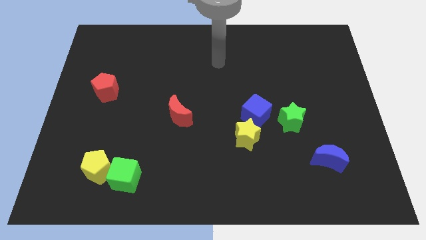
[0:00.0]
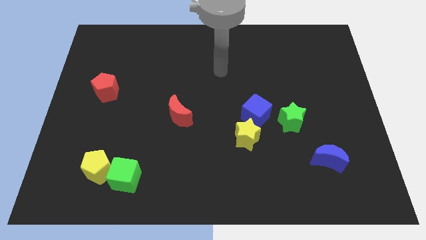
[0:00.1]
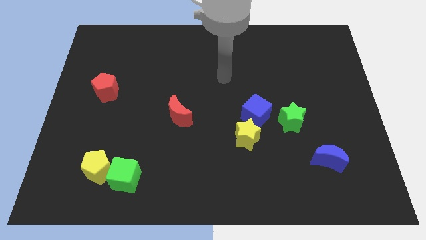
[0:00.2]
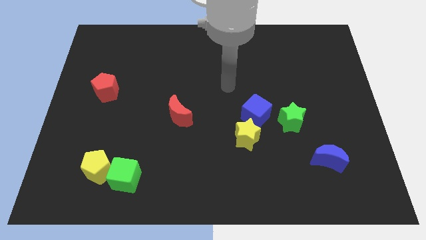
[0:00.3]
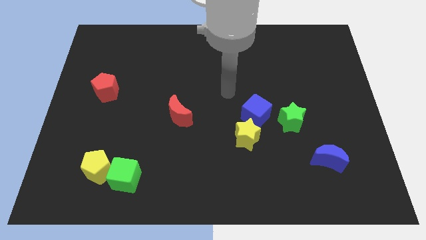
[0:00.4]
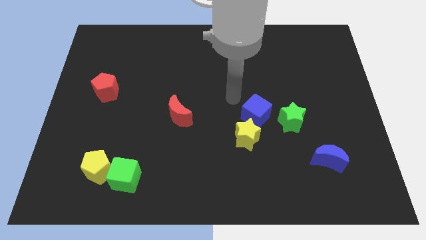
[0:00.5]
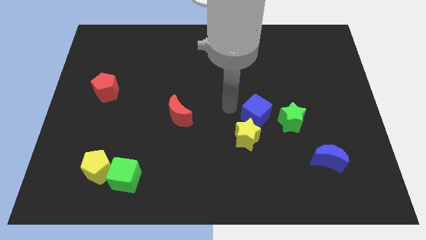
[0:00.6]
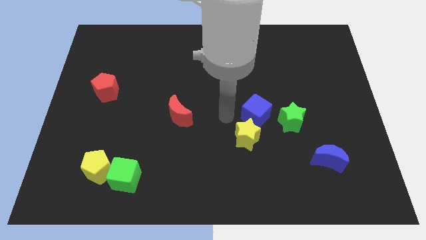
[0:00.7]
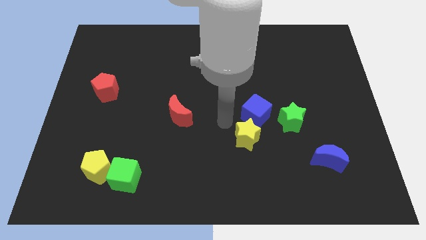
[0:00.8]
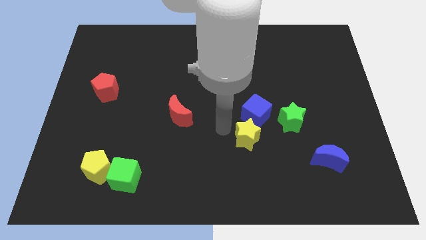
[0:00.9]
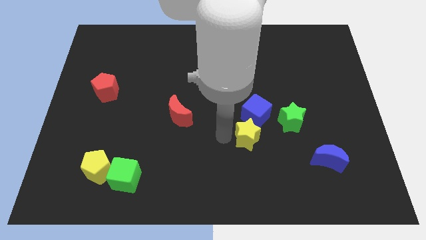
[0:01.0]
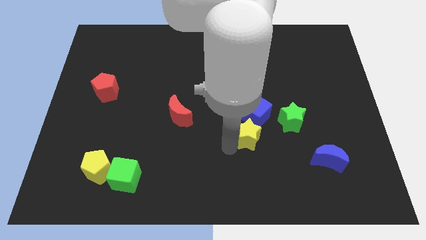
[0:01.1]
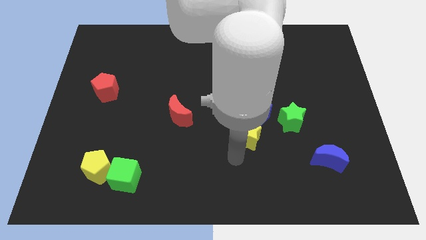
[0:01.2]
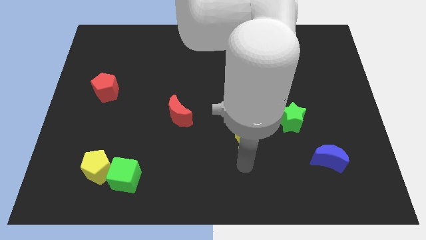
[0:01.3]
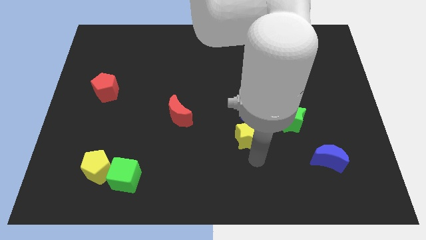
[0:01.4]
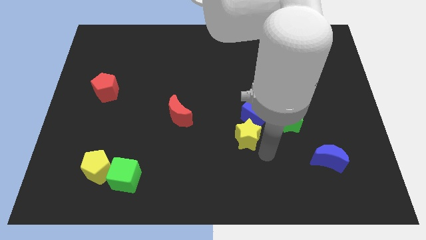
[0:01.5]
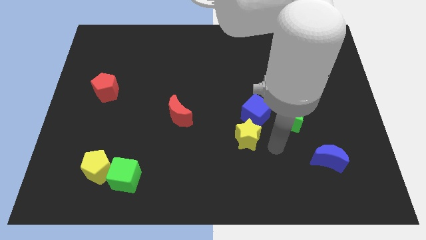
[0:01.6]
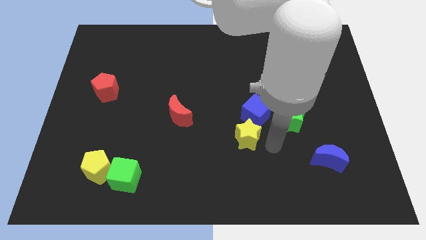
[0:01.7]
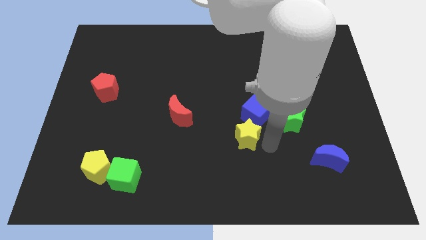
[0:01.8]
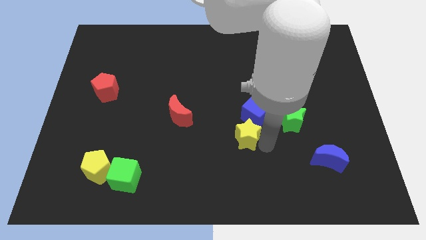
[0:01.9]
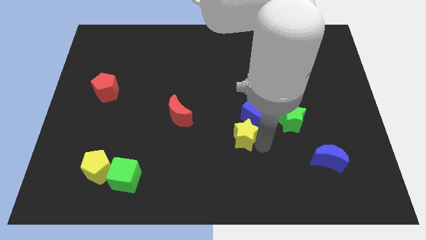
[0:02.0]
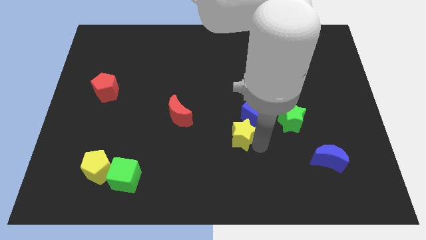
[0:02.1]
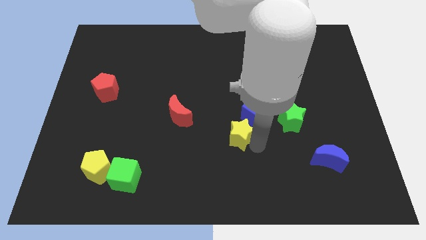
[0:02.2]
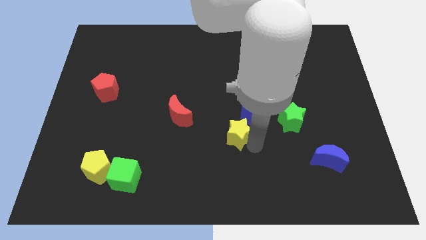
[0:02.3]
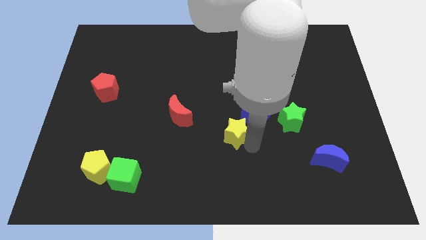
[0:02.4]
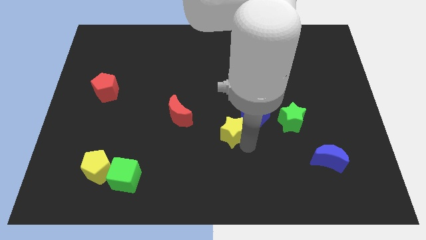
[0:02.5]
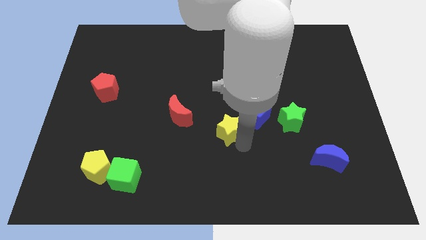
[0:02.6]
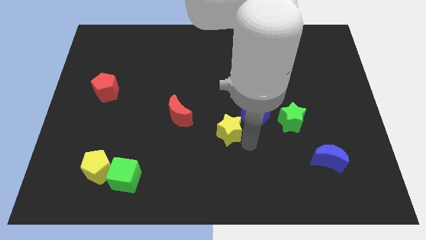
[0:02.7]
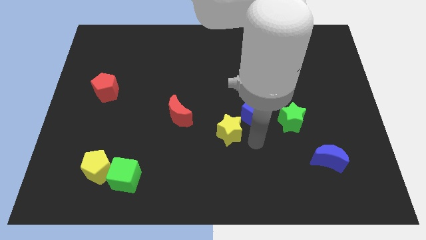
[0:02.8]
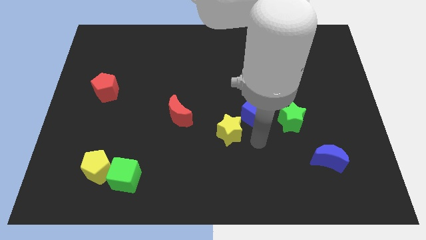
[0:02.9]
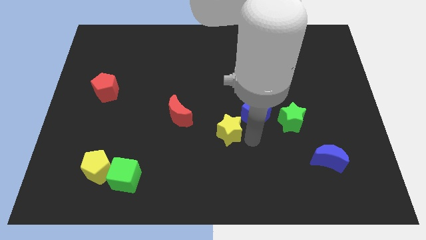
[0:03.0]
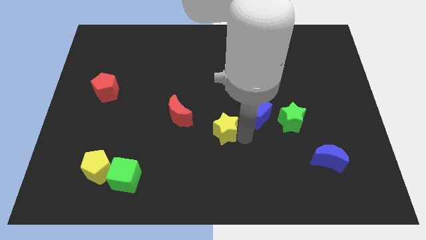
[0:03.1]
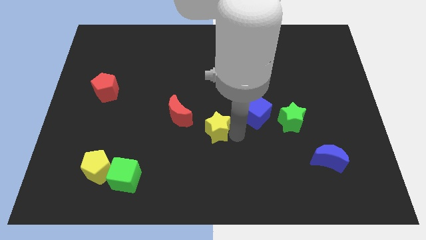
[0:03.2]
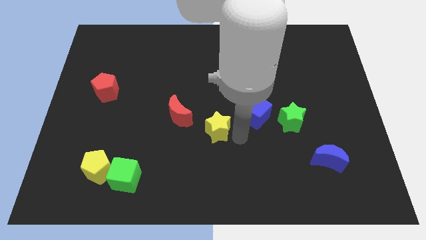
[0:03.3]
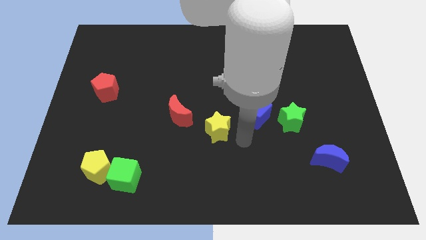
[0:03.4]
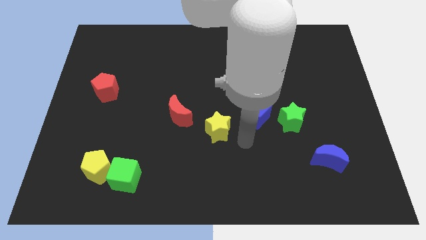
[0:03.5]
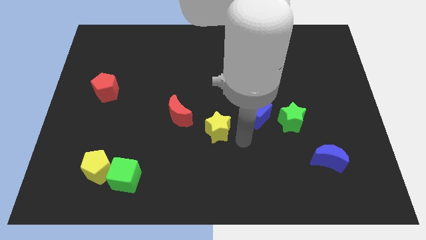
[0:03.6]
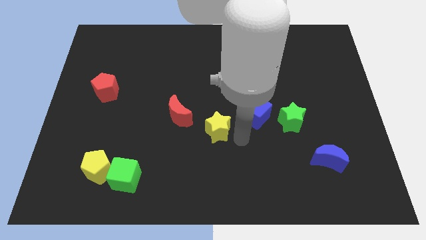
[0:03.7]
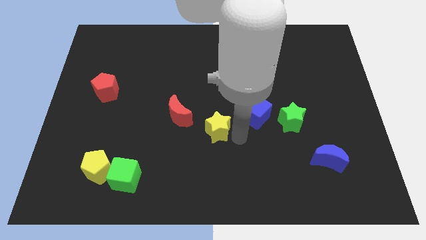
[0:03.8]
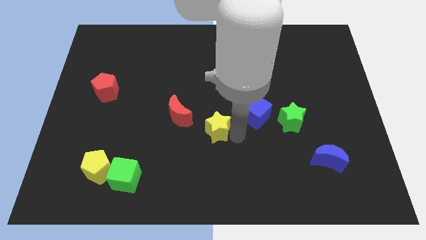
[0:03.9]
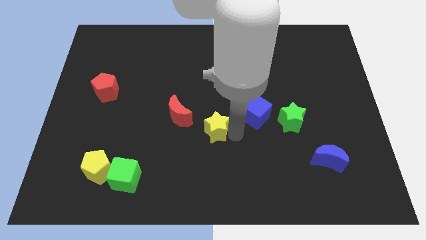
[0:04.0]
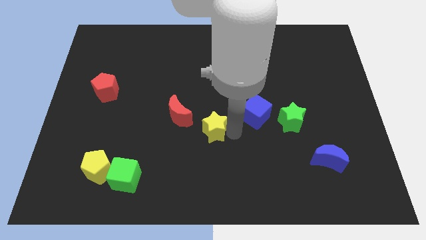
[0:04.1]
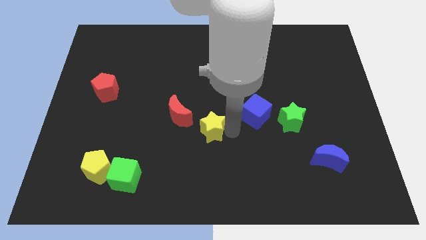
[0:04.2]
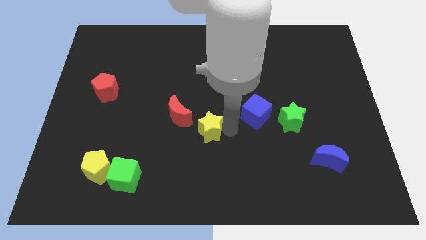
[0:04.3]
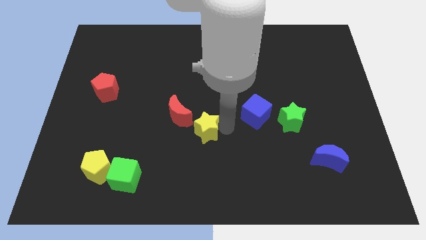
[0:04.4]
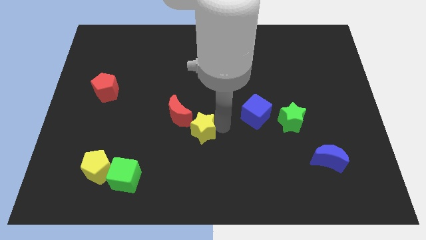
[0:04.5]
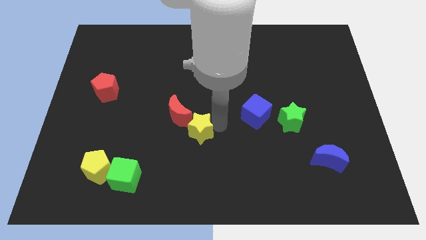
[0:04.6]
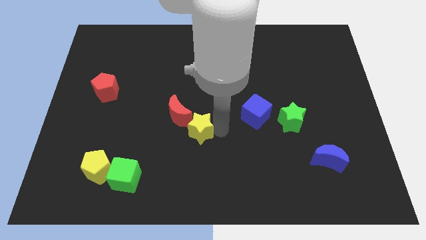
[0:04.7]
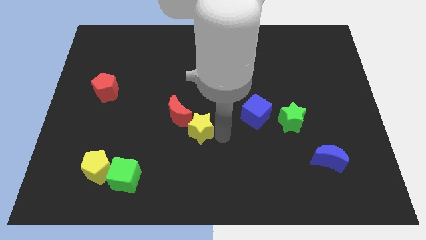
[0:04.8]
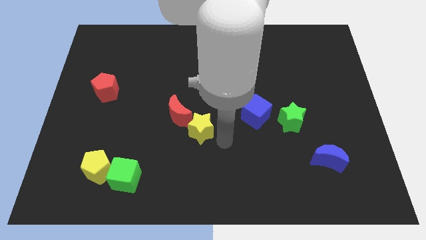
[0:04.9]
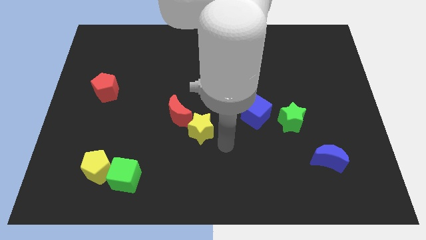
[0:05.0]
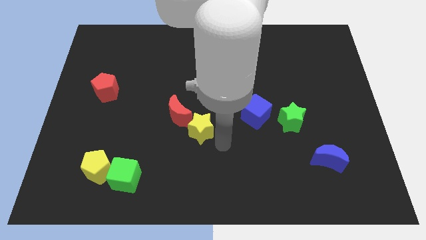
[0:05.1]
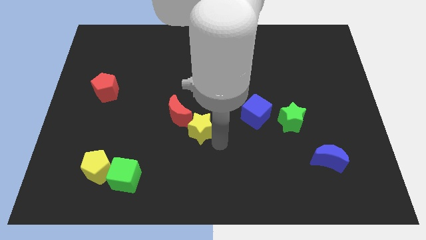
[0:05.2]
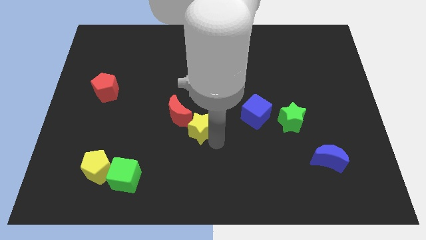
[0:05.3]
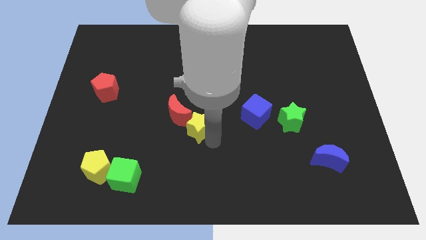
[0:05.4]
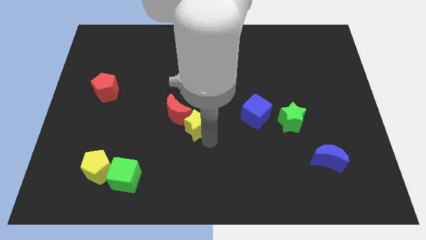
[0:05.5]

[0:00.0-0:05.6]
push the yellow star towards the red moon
